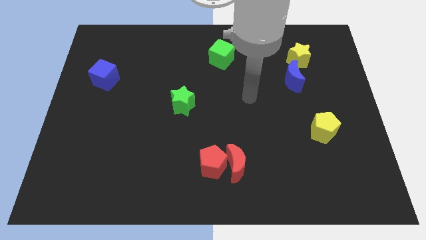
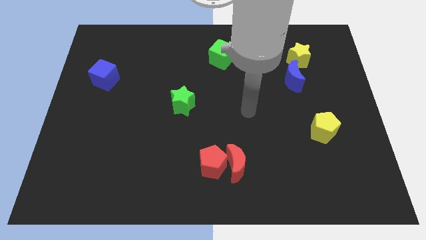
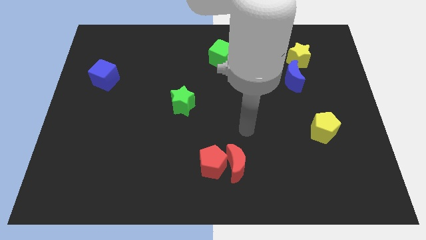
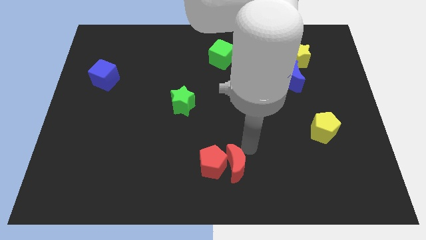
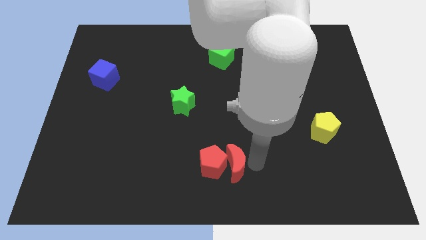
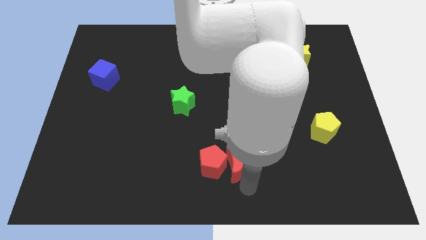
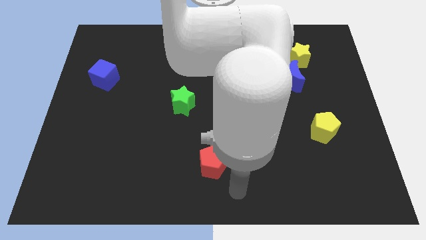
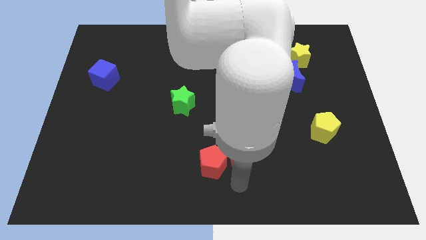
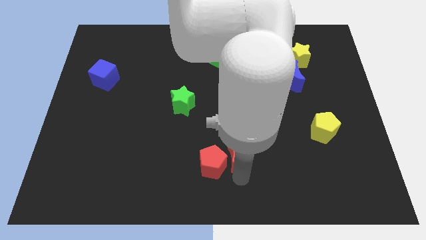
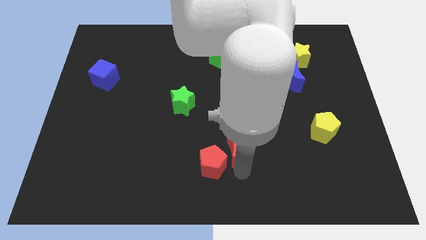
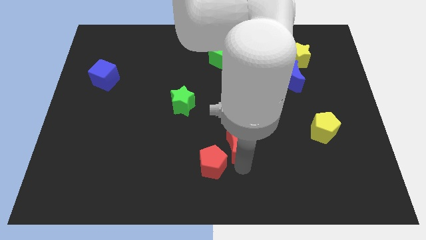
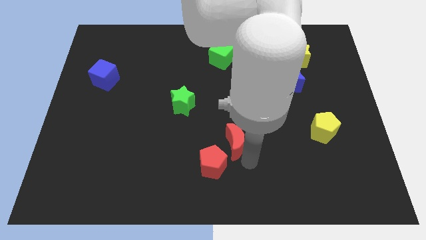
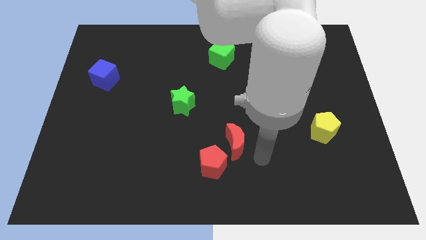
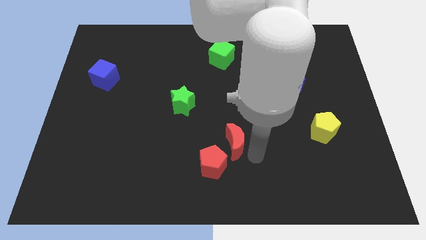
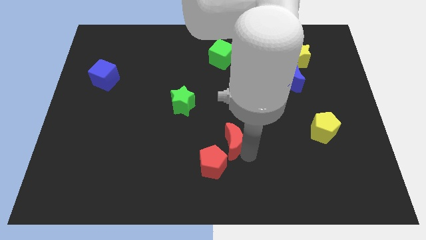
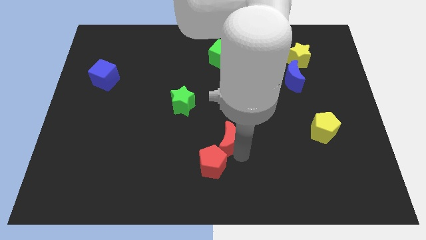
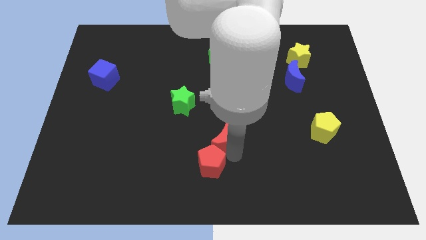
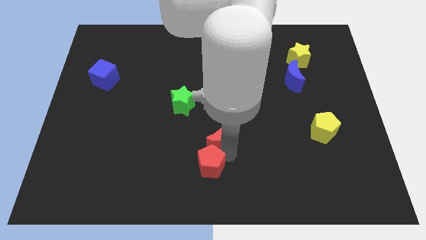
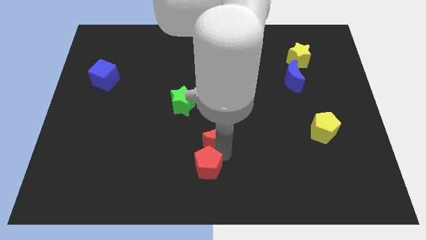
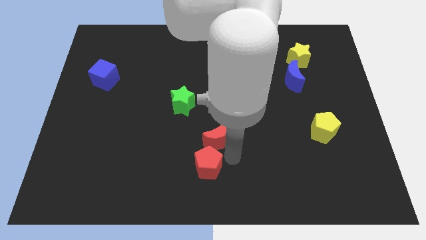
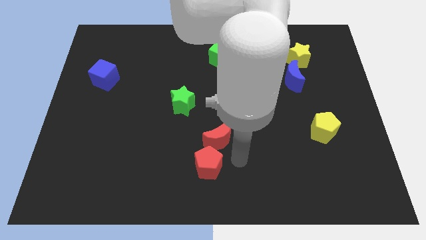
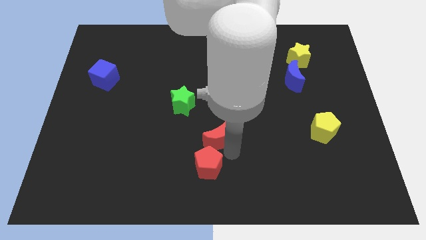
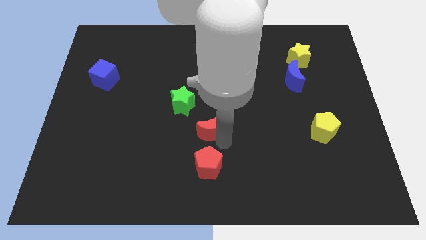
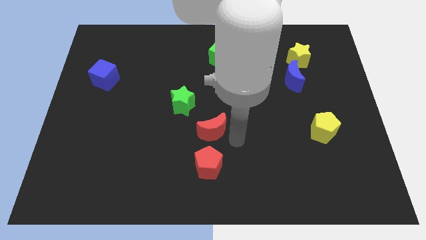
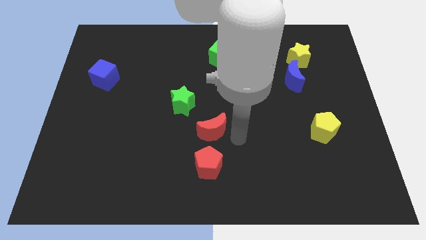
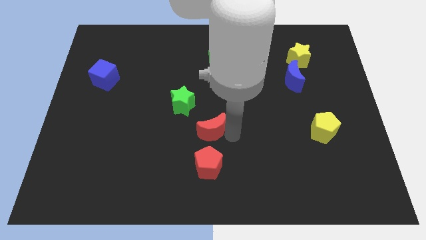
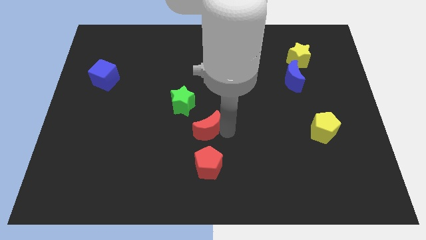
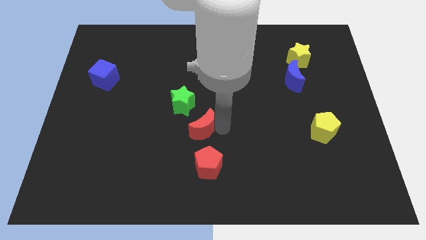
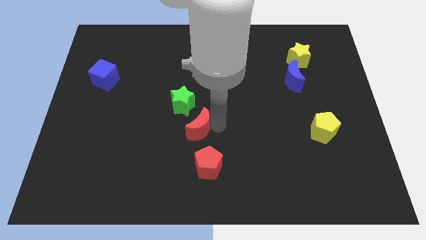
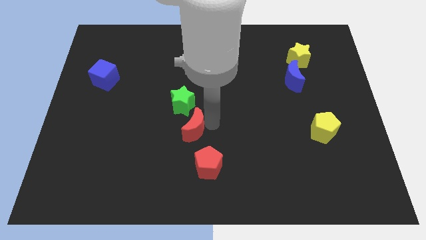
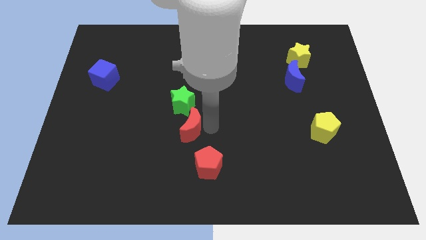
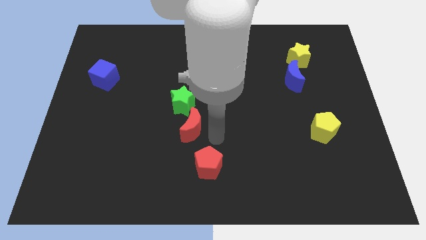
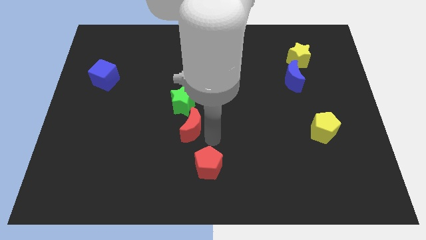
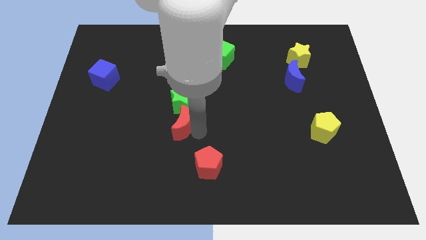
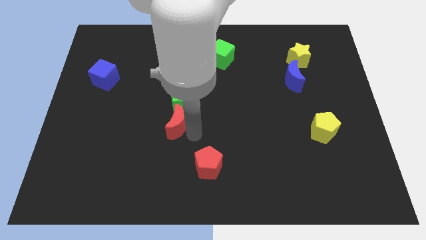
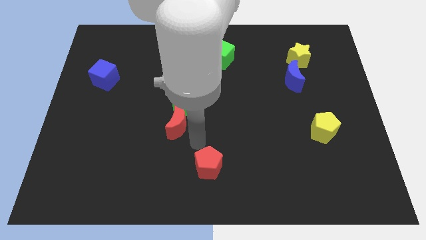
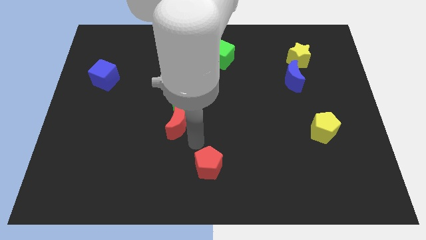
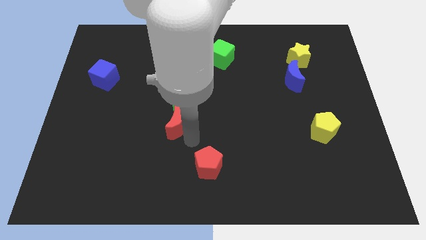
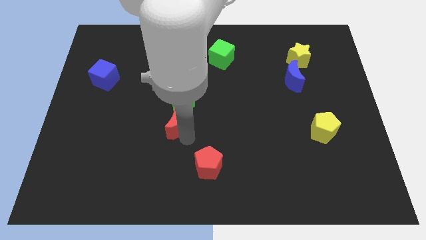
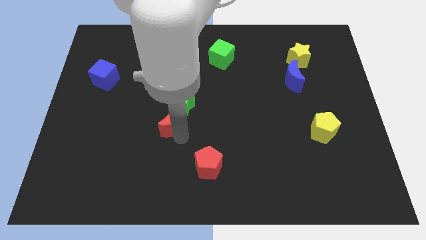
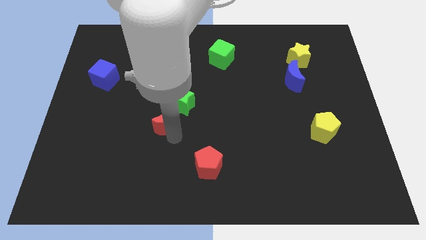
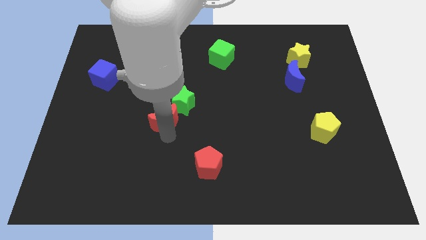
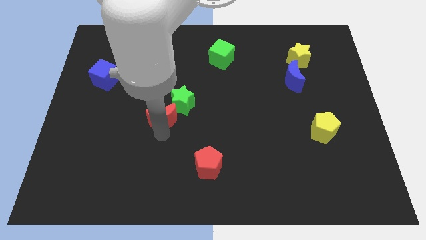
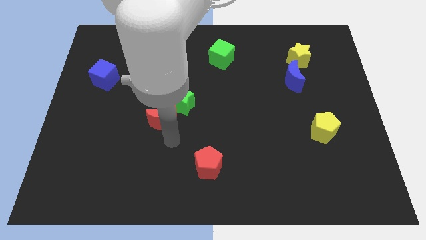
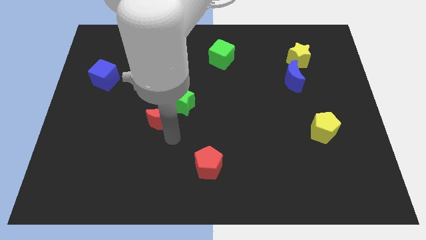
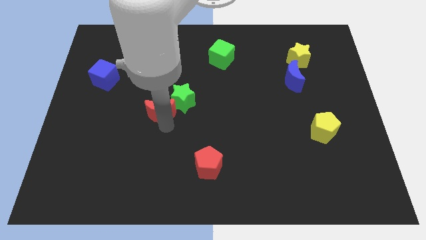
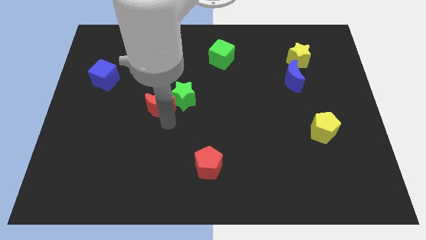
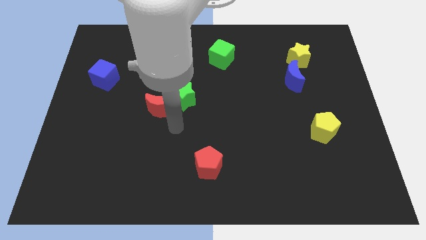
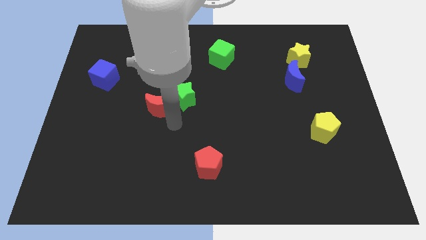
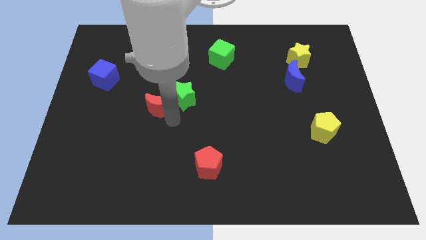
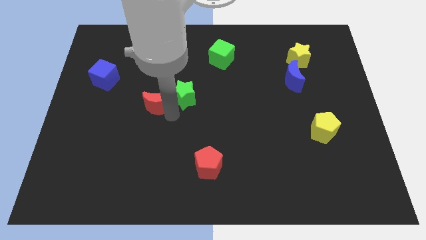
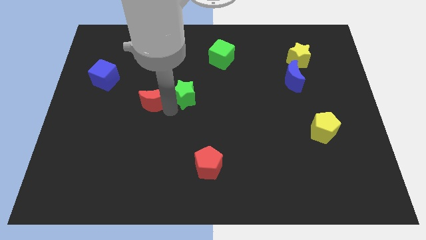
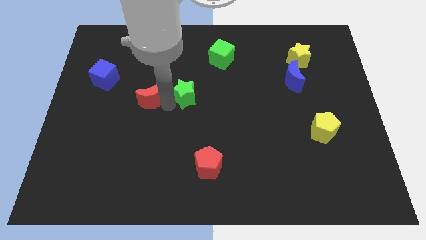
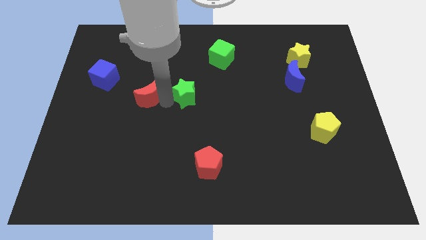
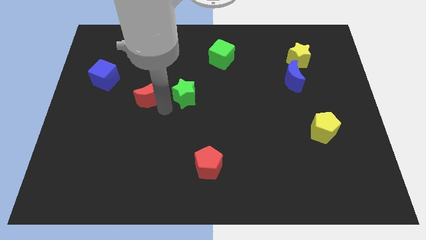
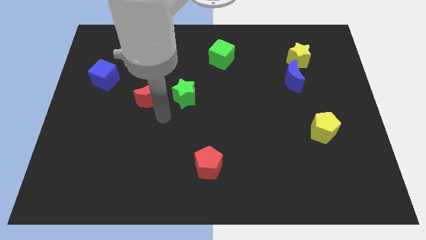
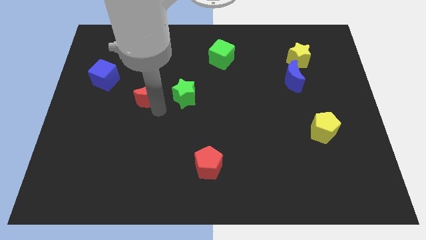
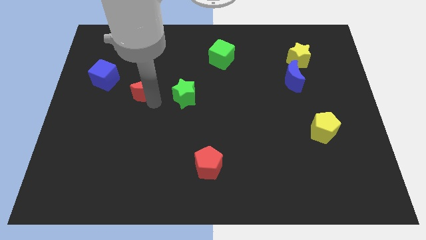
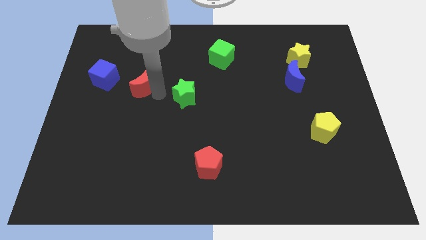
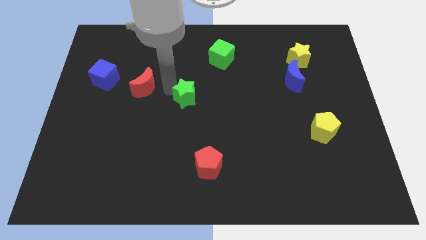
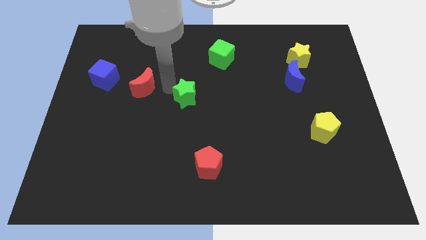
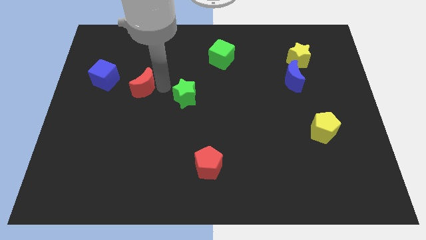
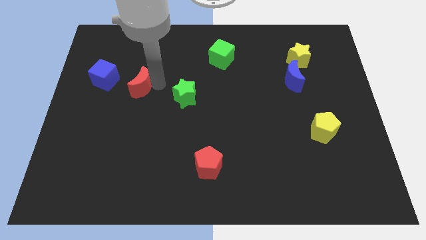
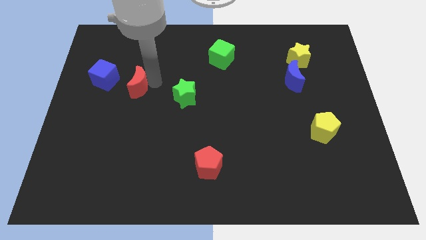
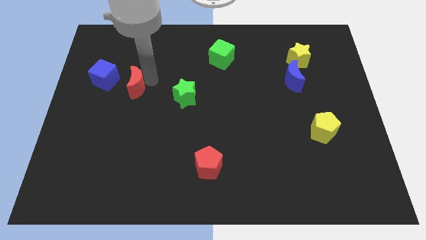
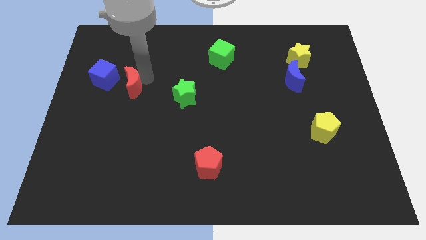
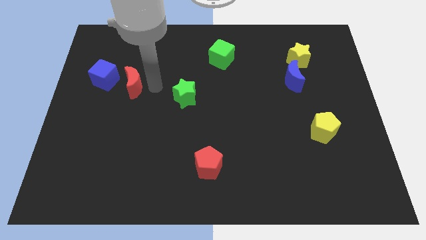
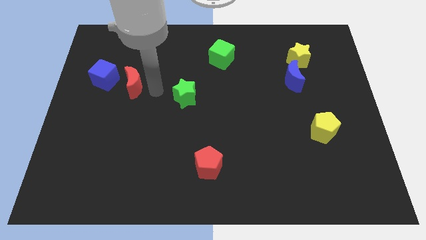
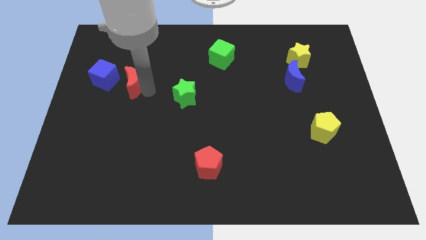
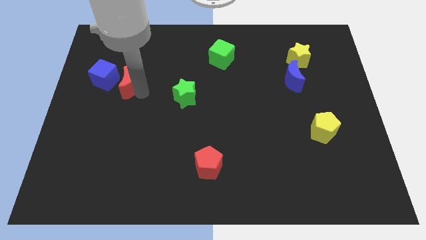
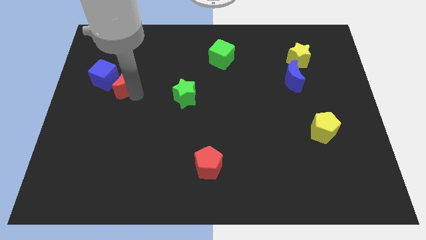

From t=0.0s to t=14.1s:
slide the red moon close to the blue cube

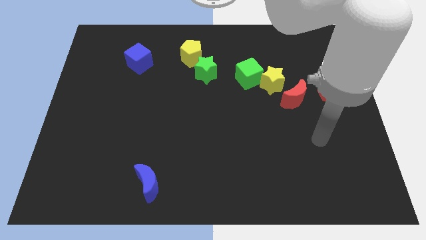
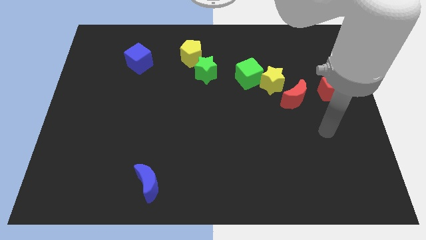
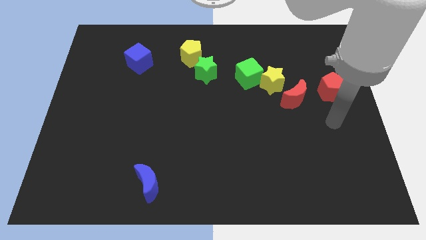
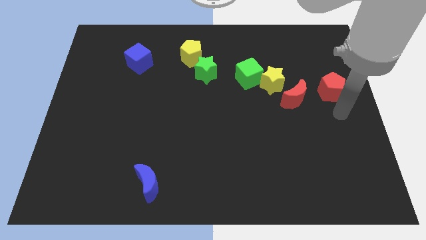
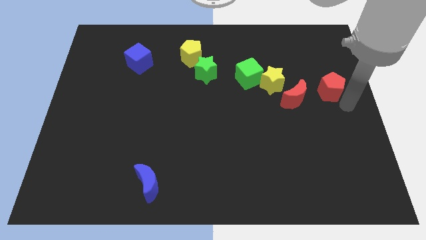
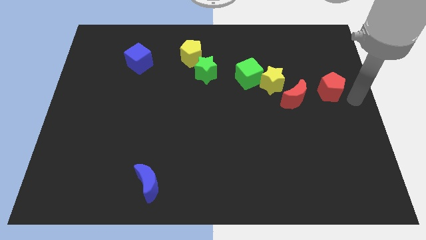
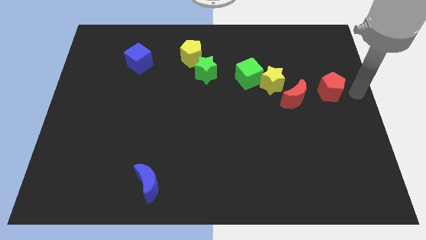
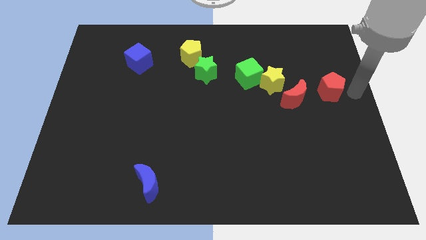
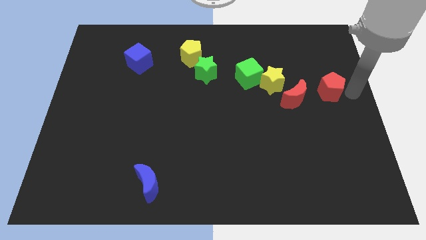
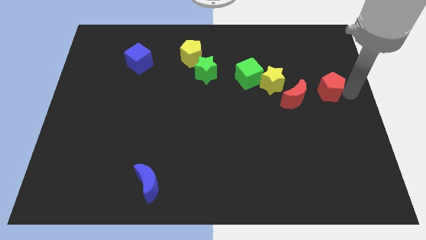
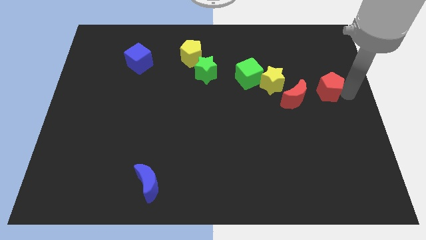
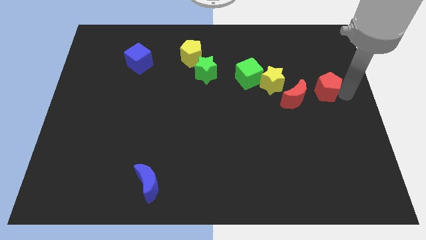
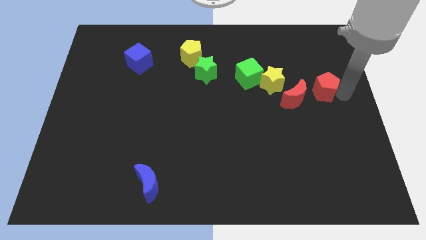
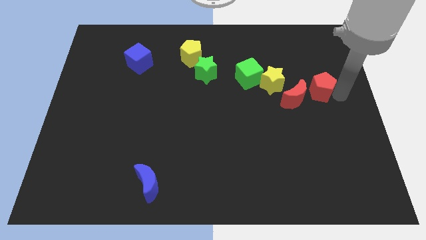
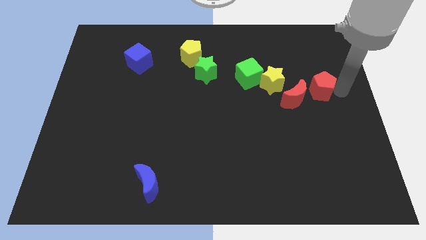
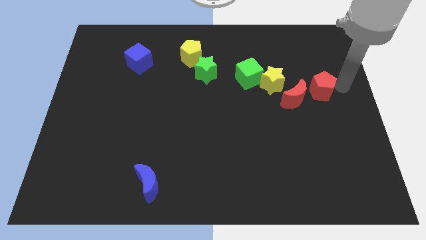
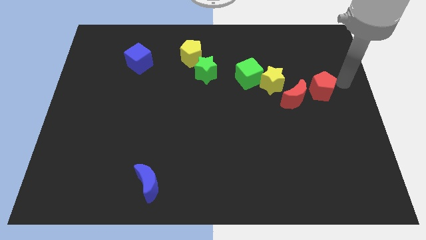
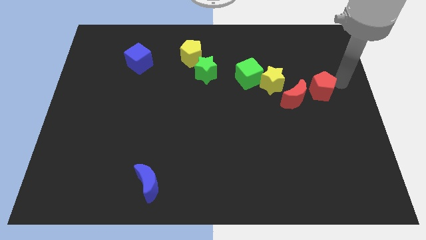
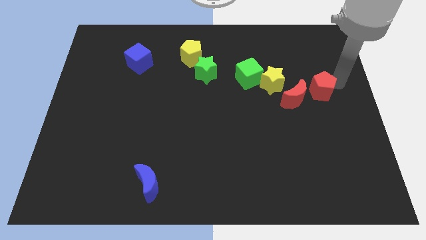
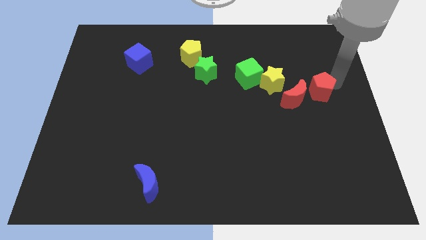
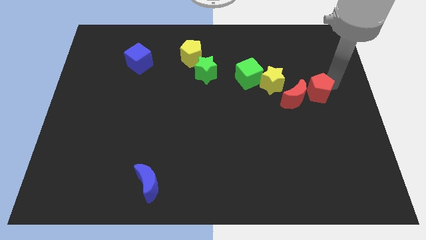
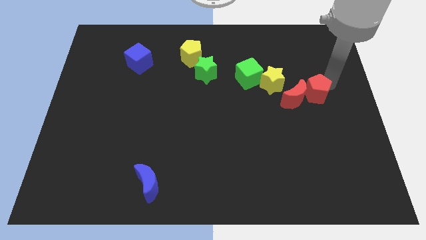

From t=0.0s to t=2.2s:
move the red pentagon towards the red moon
